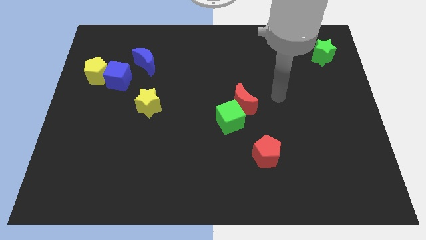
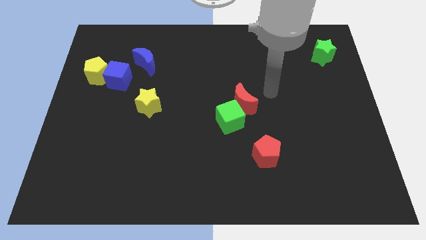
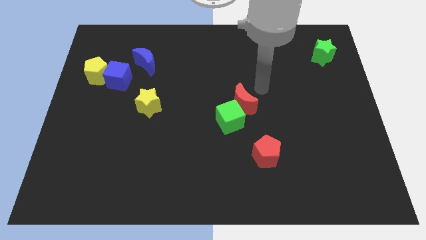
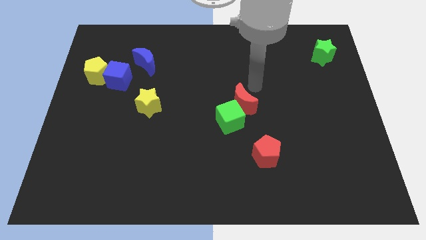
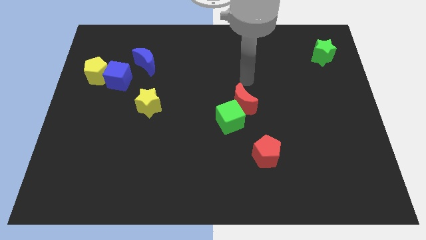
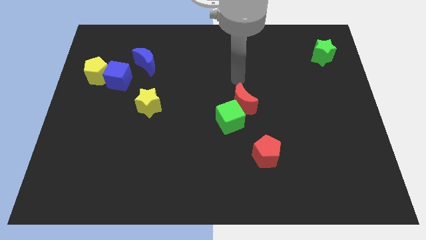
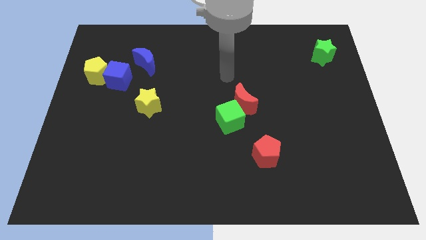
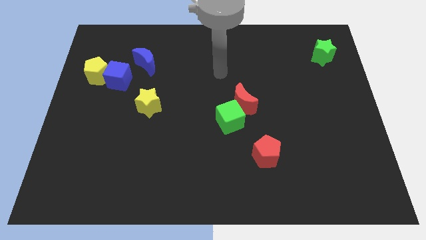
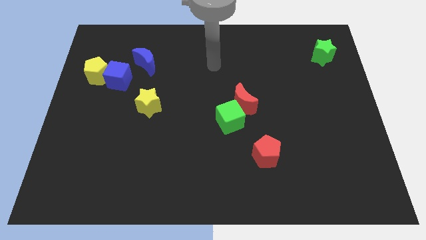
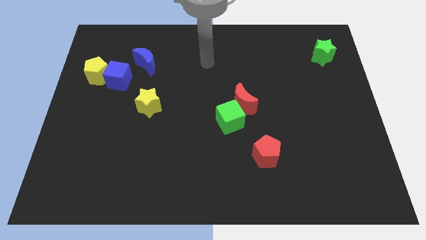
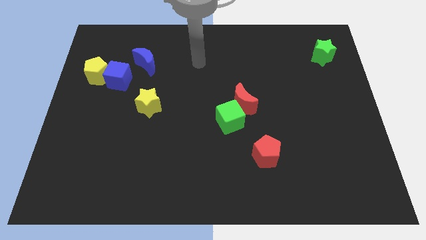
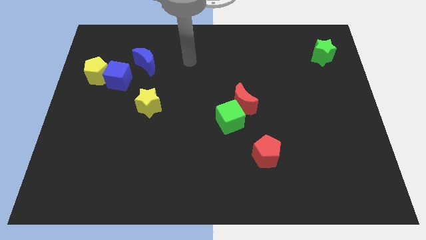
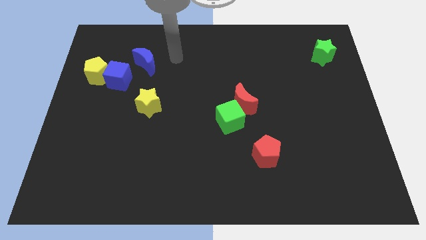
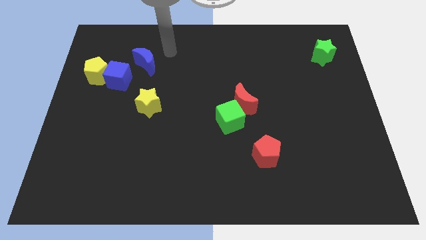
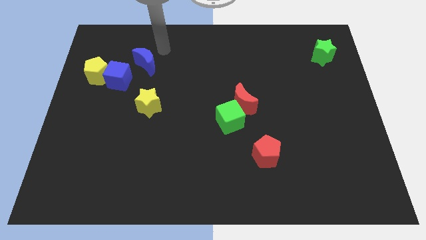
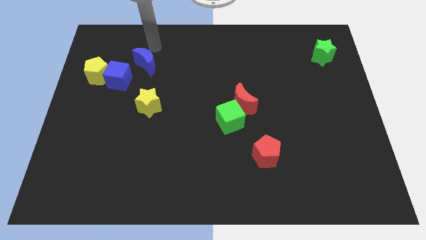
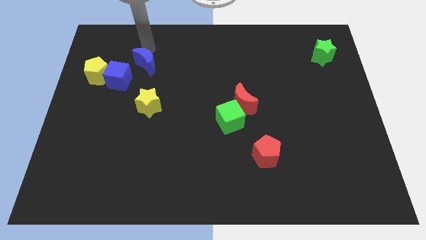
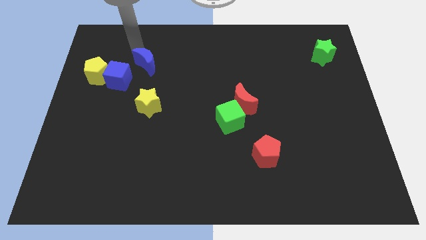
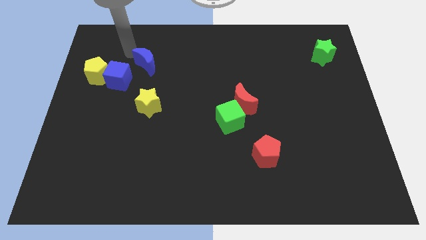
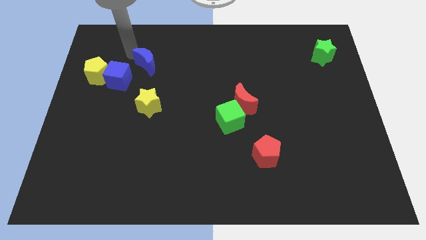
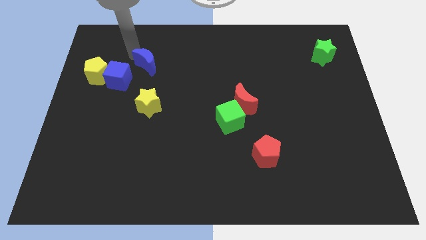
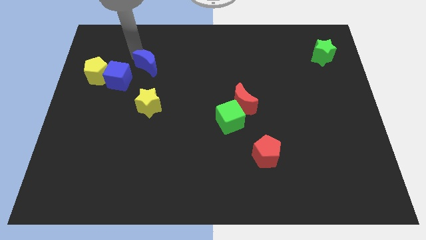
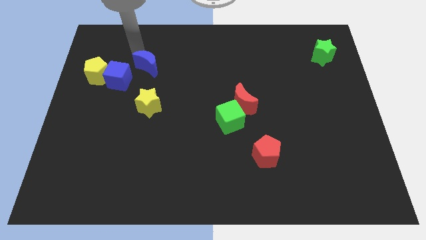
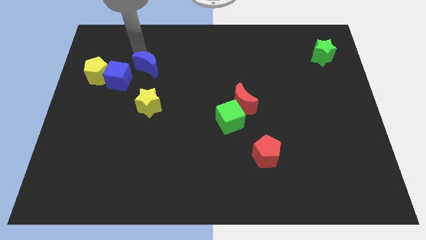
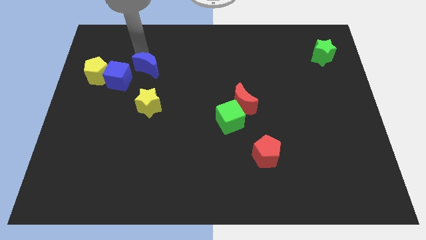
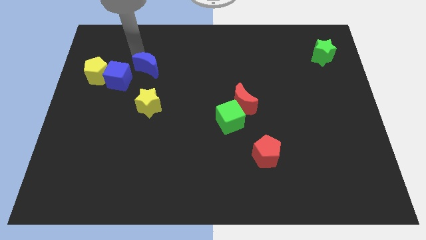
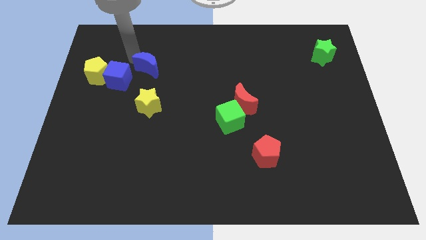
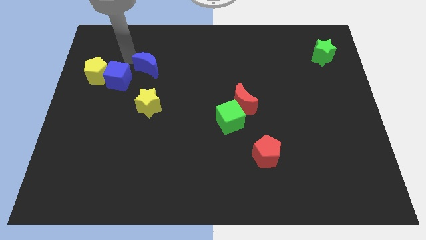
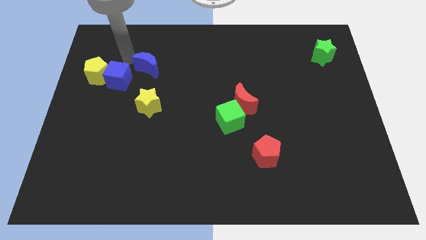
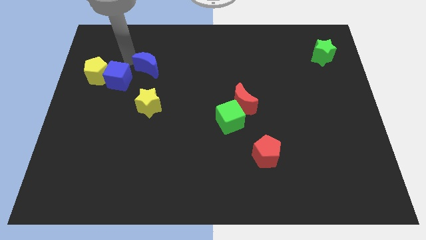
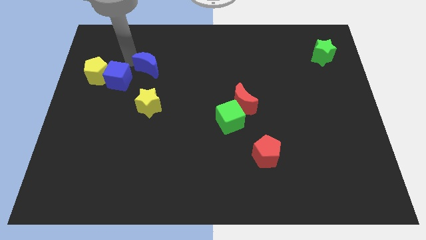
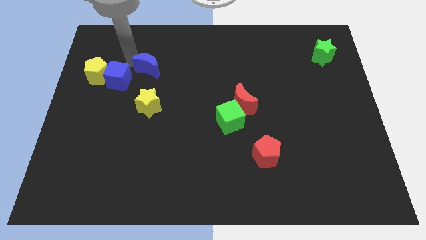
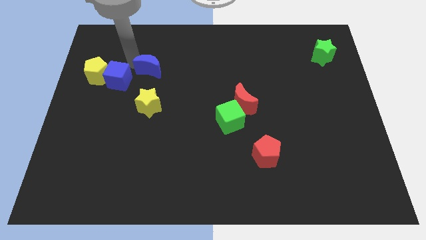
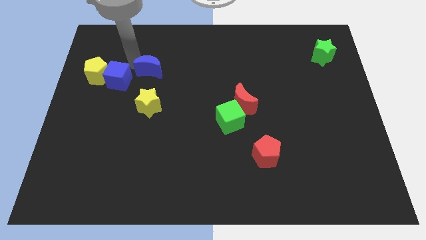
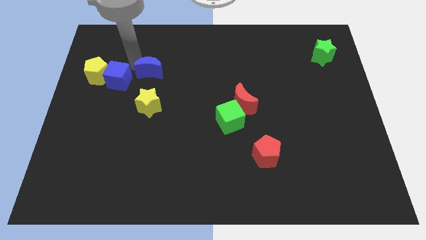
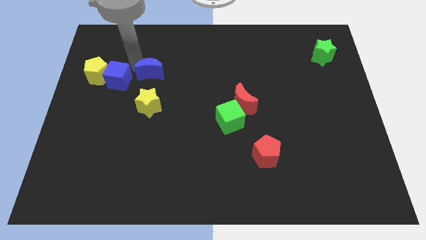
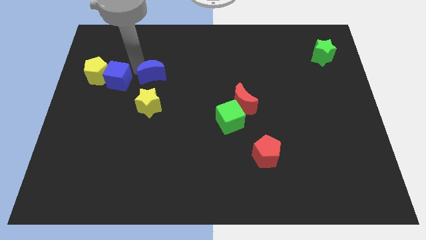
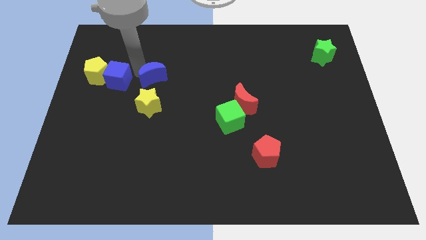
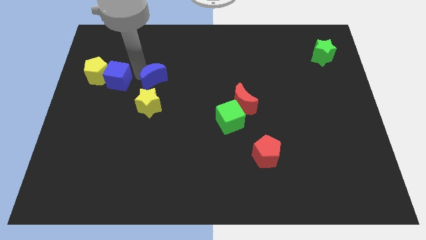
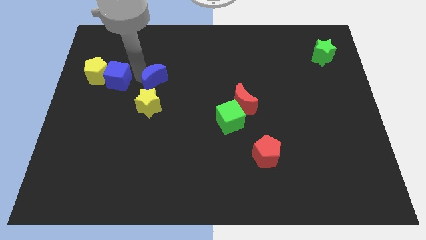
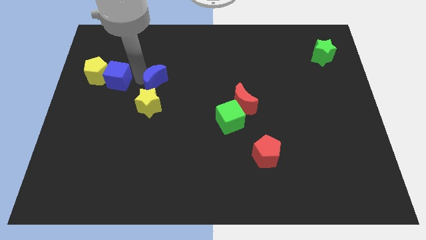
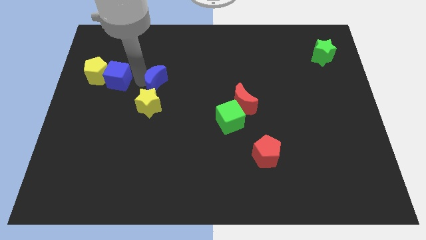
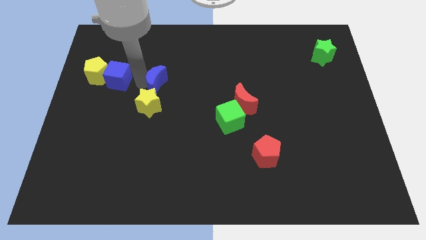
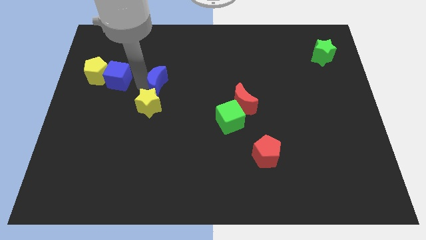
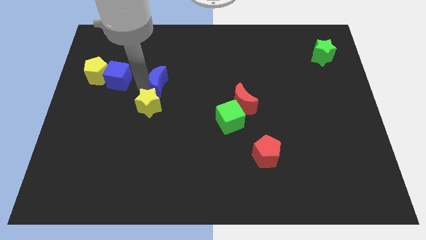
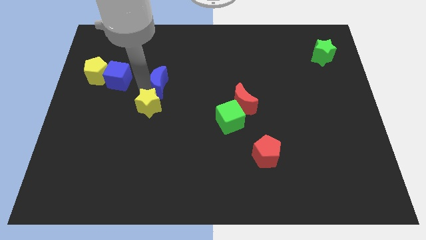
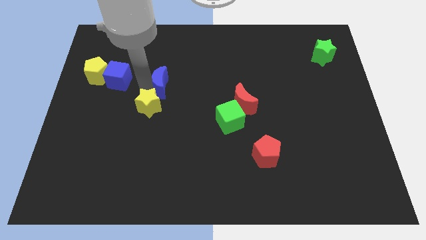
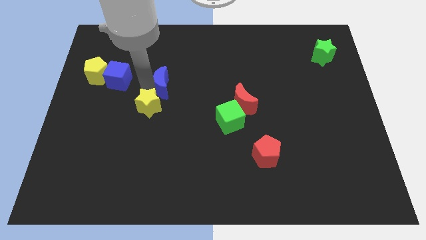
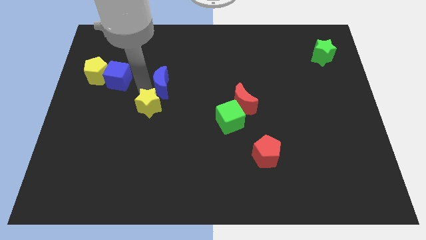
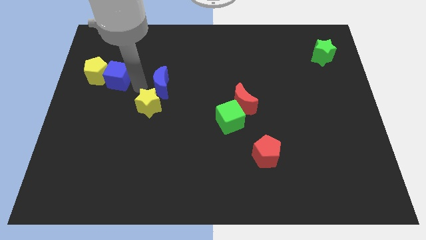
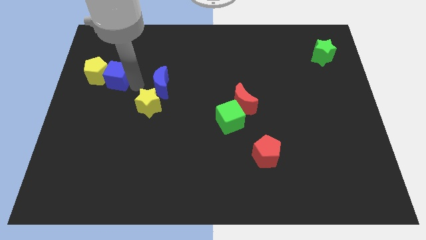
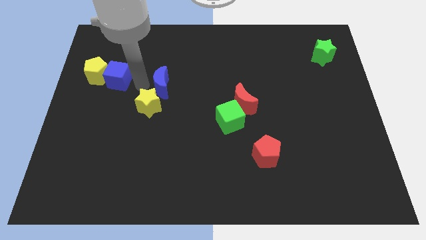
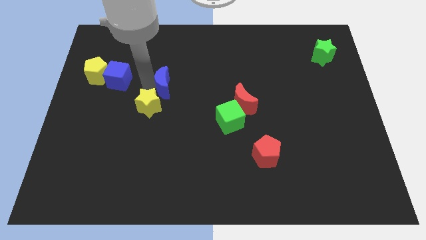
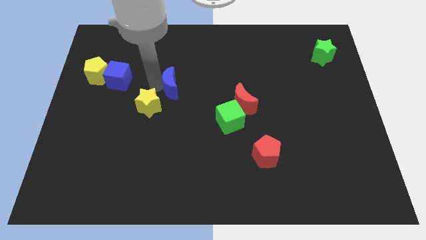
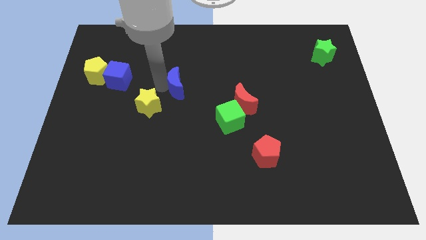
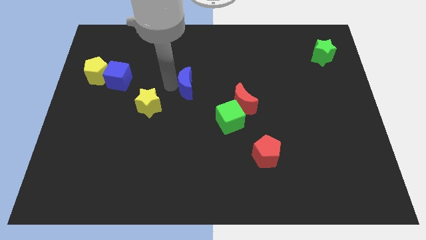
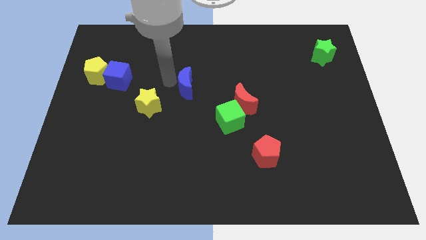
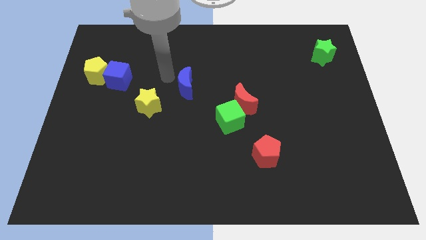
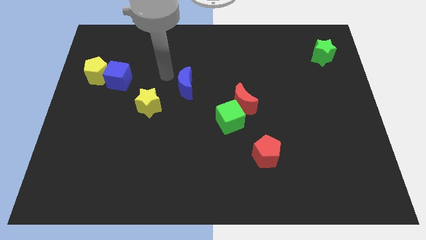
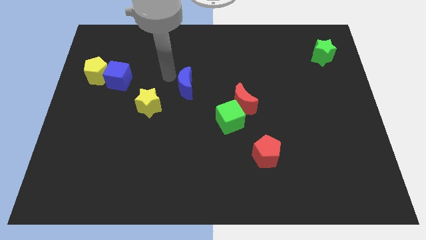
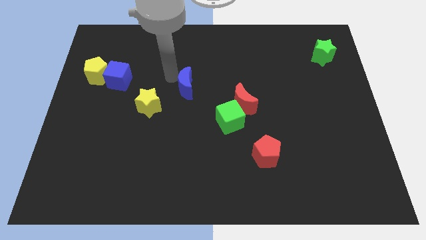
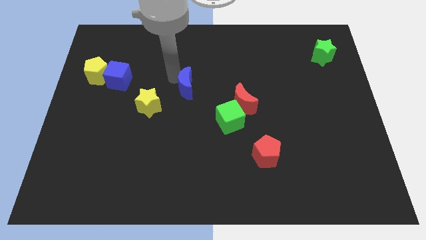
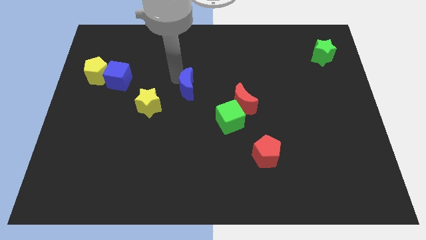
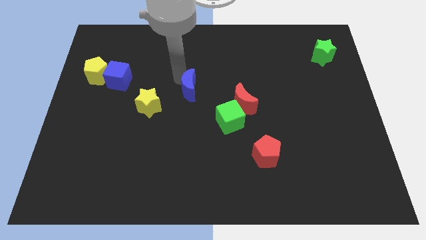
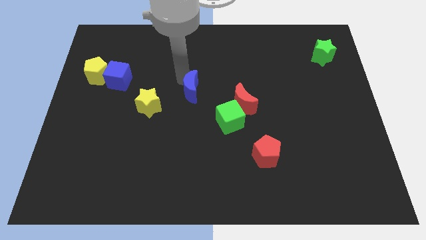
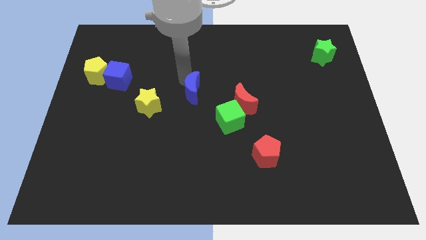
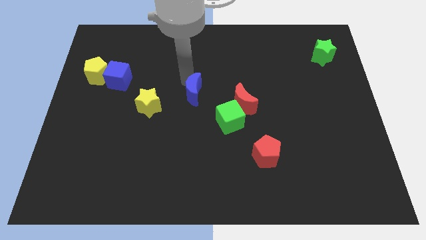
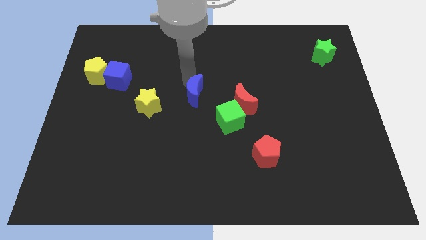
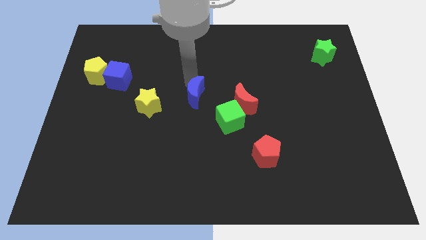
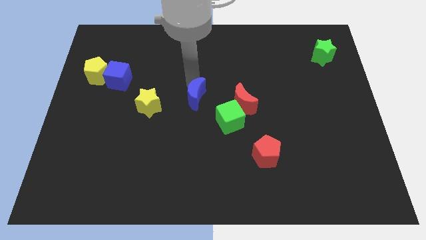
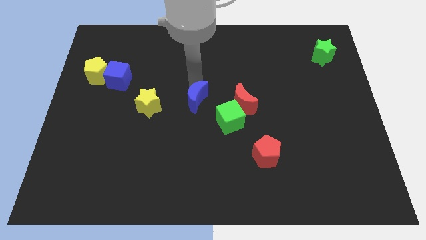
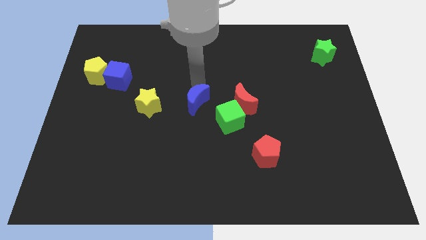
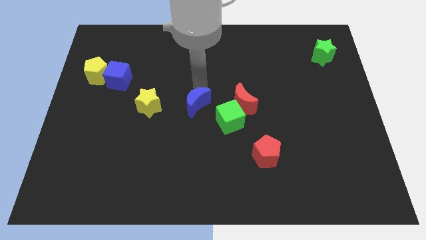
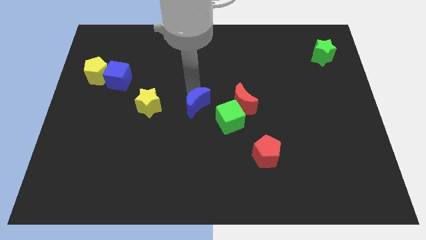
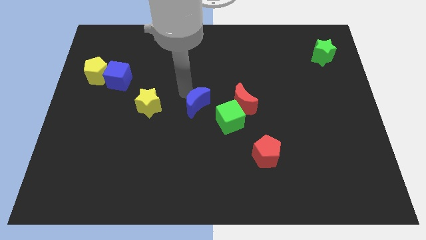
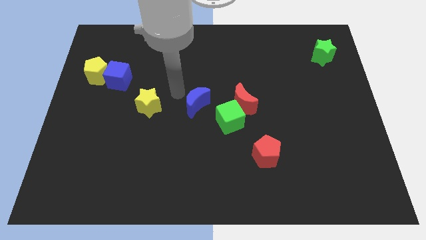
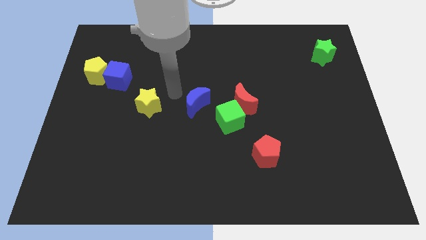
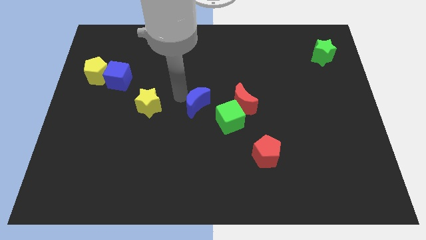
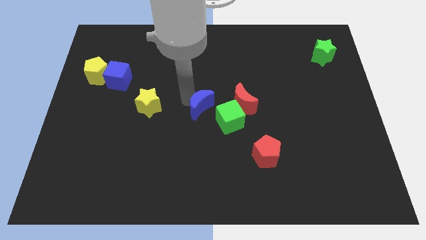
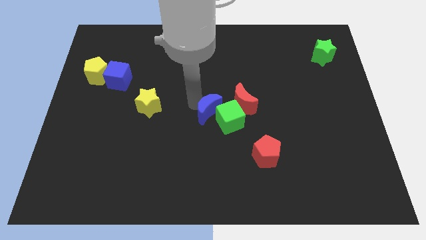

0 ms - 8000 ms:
move the blue moon towards the green cube
